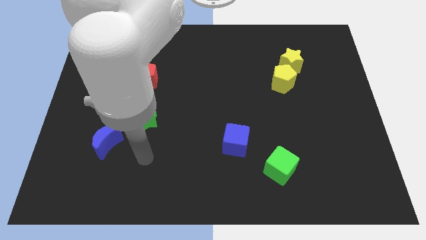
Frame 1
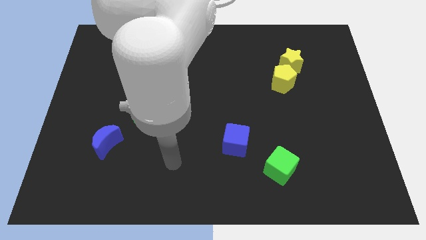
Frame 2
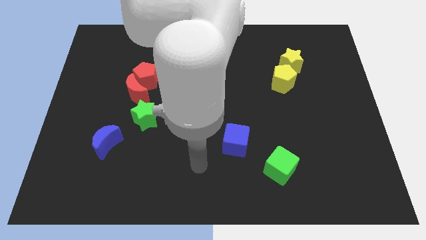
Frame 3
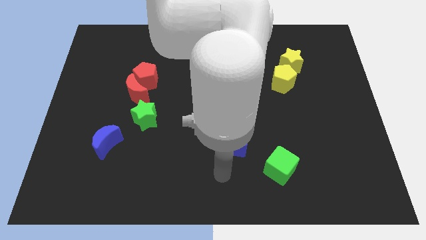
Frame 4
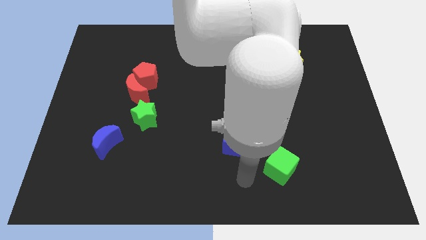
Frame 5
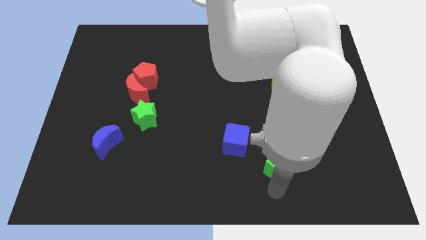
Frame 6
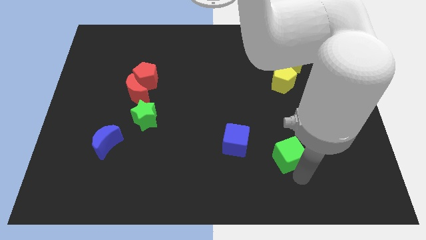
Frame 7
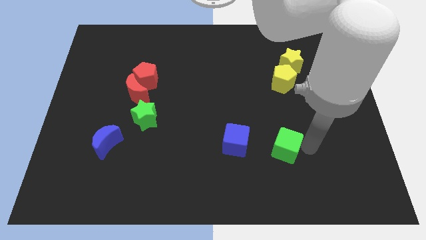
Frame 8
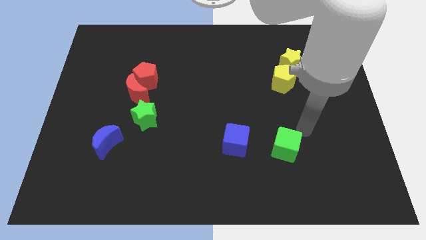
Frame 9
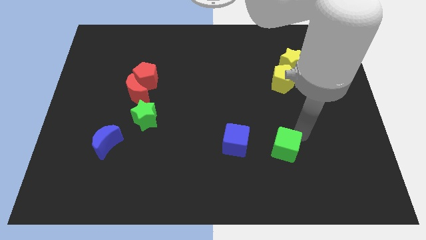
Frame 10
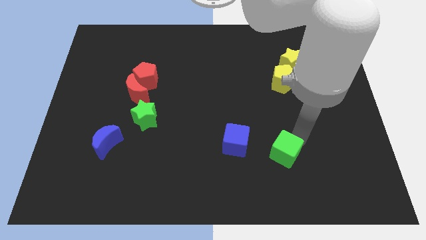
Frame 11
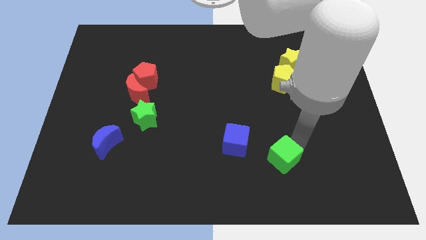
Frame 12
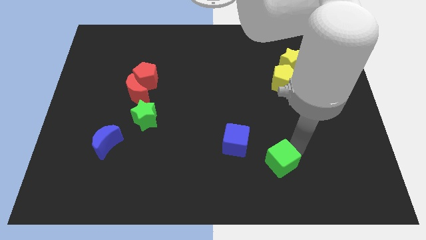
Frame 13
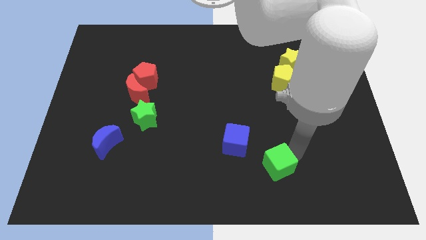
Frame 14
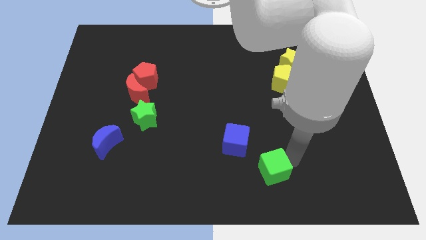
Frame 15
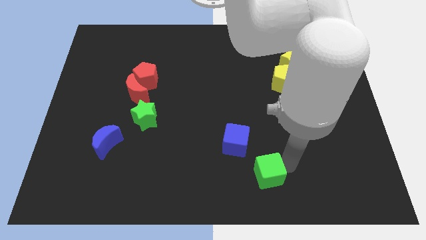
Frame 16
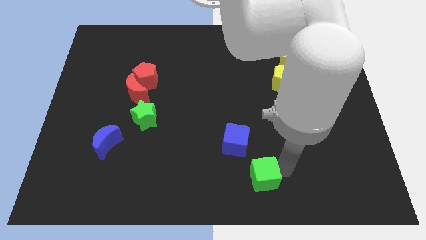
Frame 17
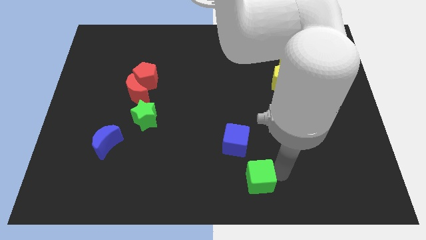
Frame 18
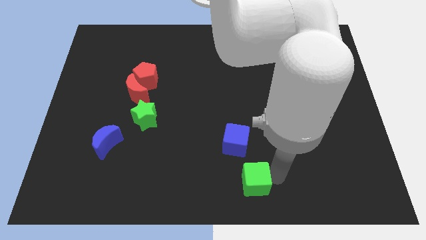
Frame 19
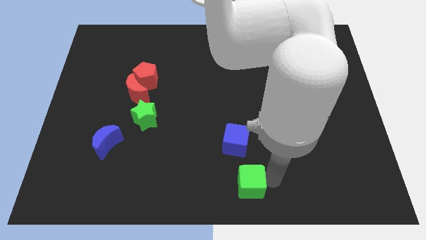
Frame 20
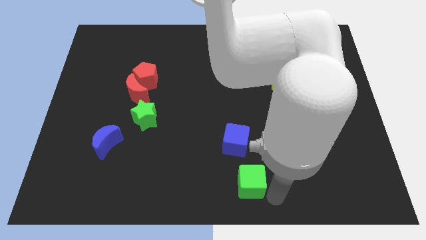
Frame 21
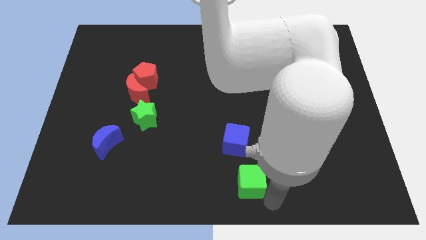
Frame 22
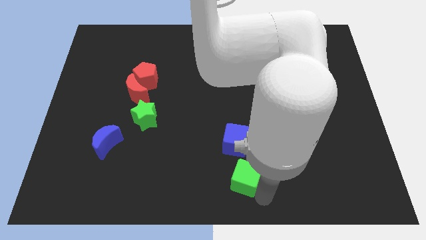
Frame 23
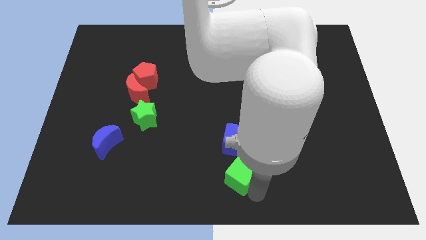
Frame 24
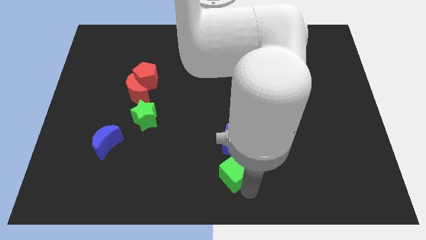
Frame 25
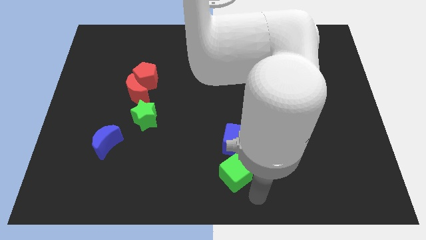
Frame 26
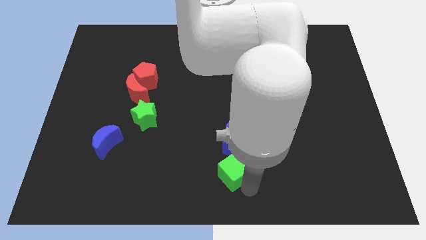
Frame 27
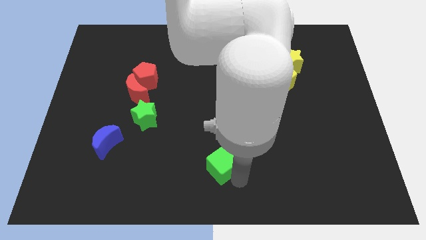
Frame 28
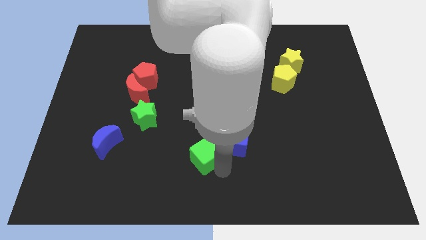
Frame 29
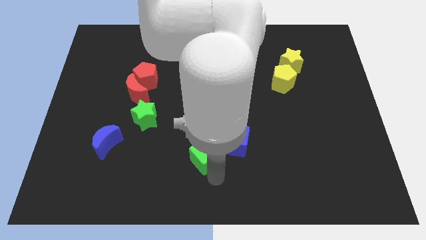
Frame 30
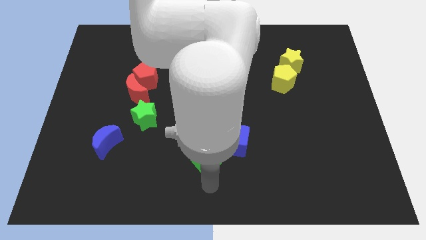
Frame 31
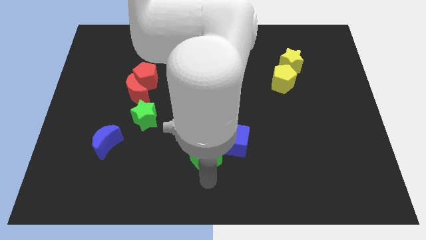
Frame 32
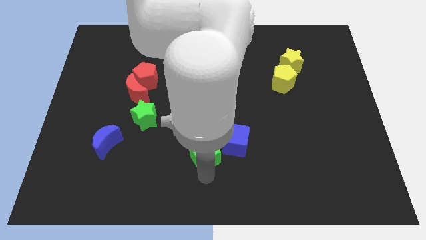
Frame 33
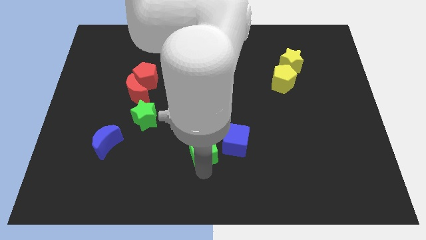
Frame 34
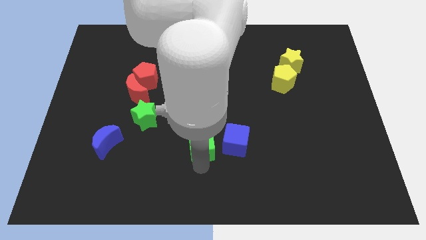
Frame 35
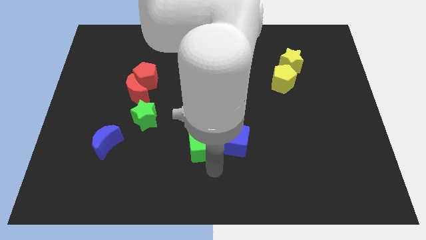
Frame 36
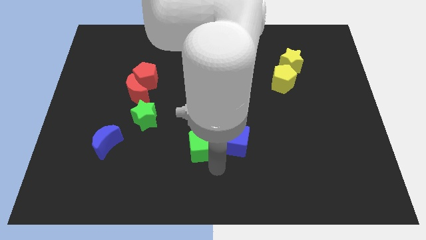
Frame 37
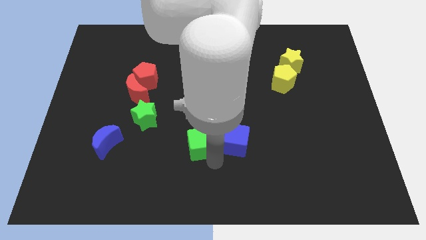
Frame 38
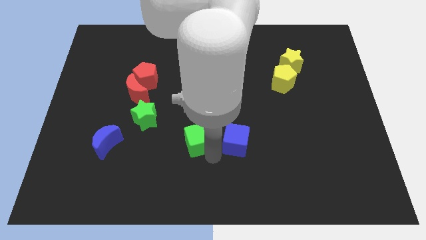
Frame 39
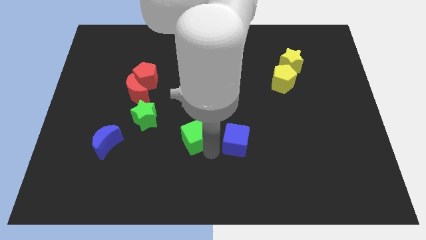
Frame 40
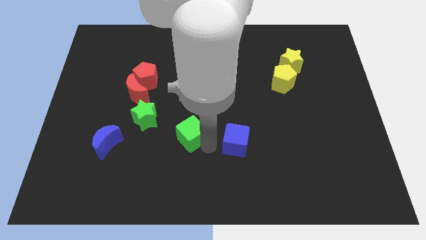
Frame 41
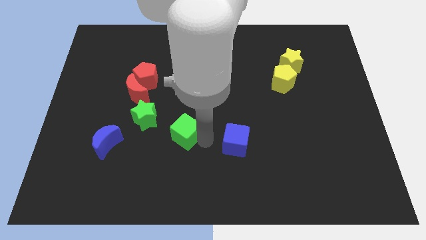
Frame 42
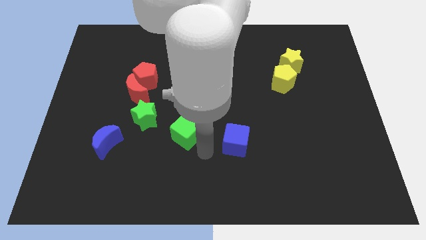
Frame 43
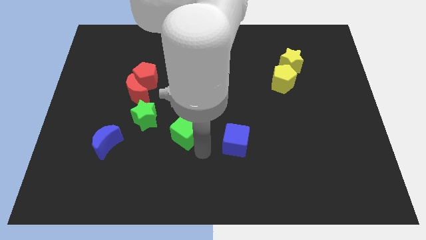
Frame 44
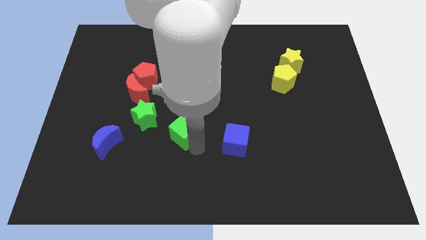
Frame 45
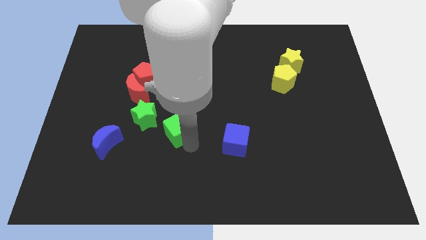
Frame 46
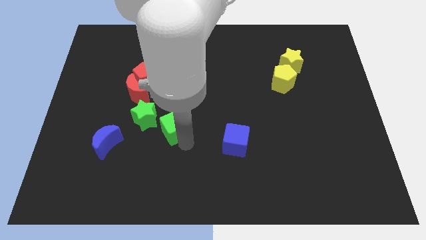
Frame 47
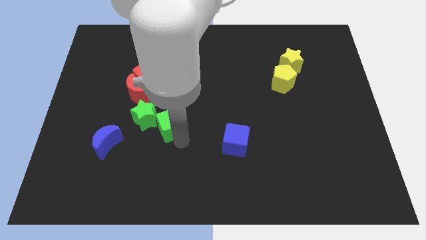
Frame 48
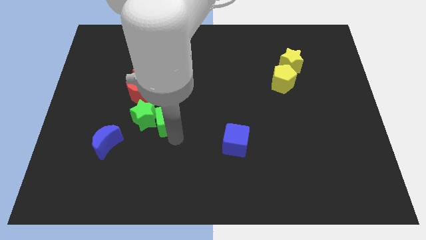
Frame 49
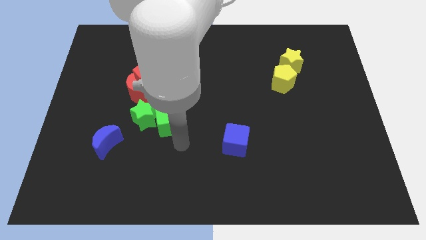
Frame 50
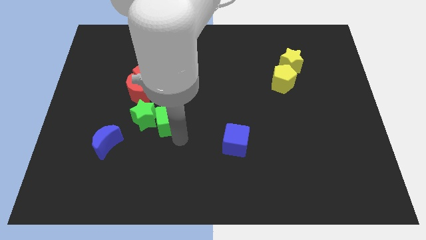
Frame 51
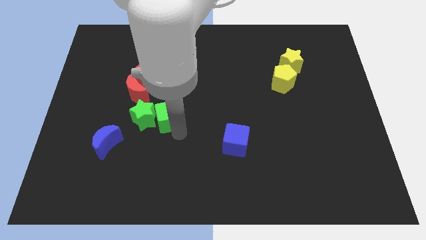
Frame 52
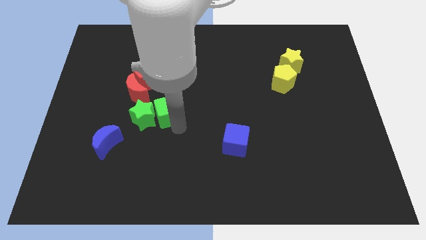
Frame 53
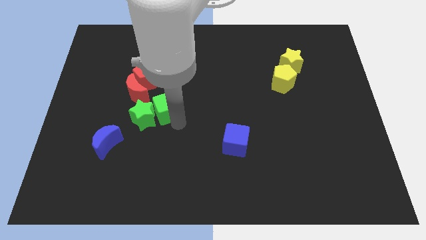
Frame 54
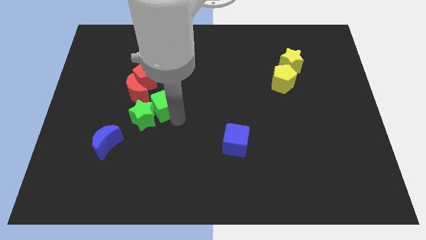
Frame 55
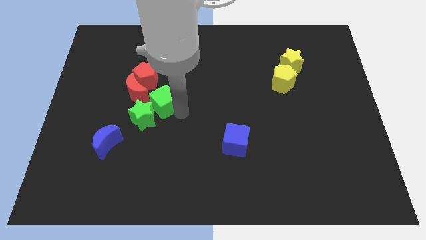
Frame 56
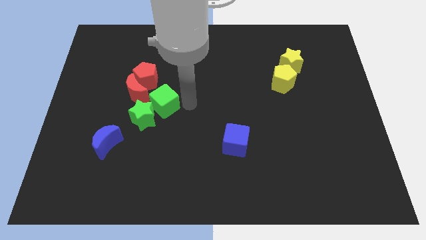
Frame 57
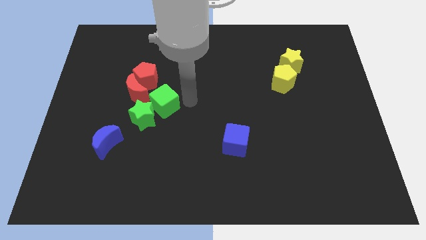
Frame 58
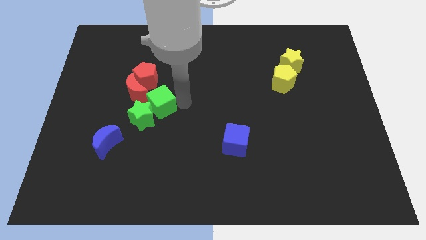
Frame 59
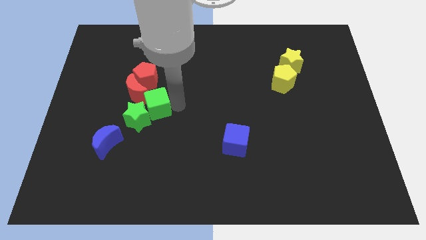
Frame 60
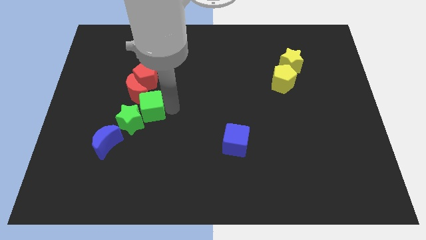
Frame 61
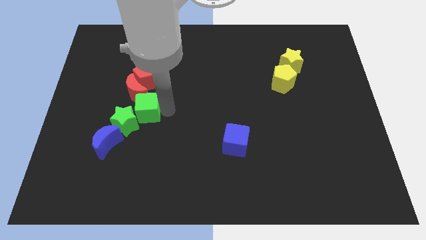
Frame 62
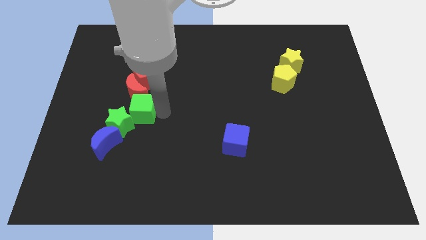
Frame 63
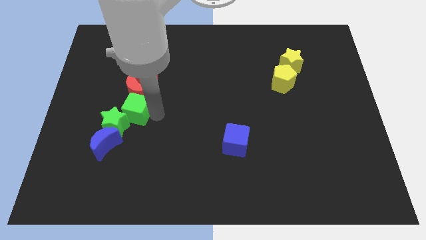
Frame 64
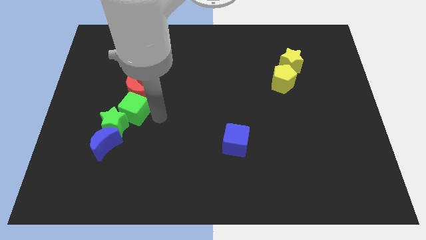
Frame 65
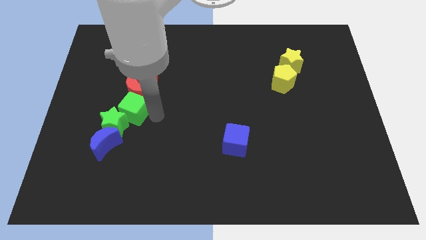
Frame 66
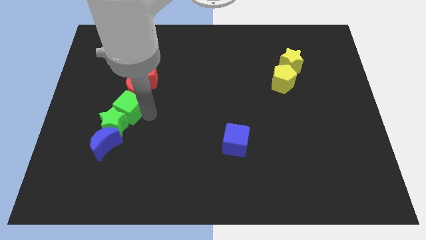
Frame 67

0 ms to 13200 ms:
slide the green cube to the top side of the blue moon

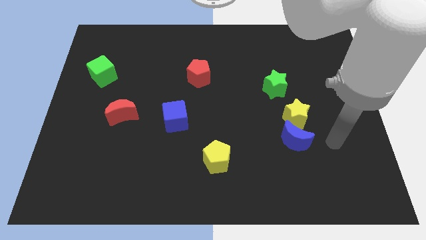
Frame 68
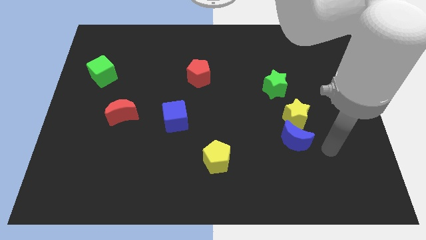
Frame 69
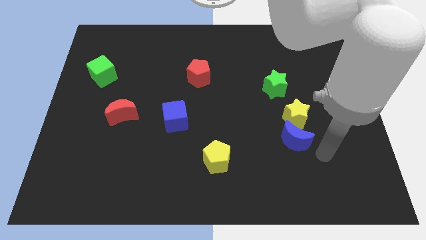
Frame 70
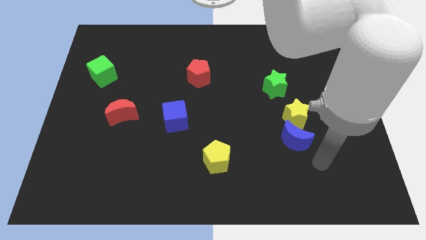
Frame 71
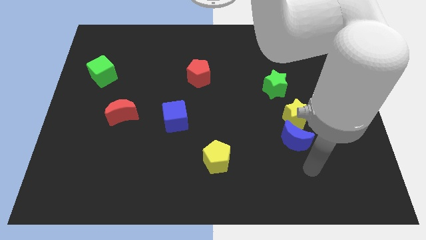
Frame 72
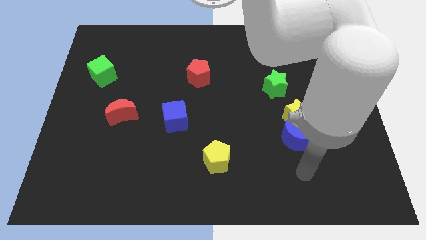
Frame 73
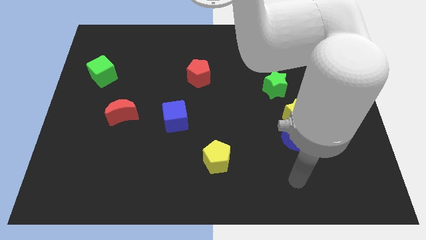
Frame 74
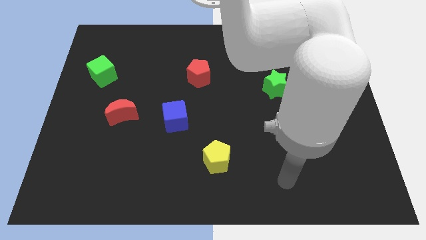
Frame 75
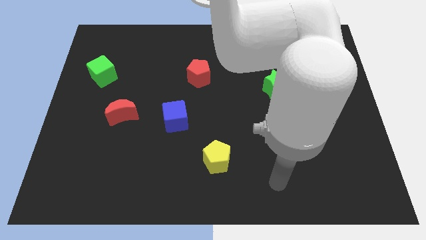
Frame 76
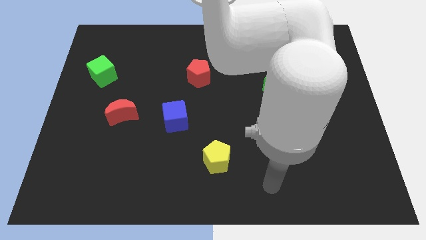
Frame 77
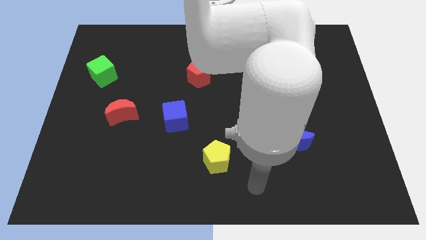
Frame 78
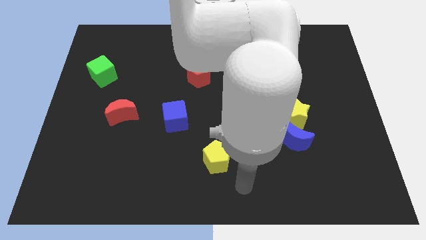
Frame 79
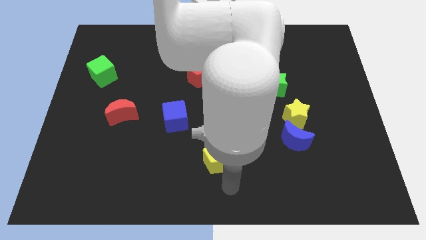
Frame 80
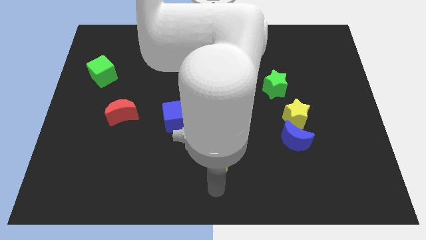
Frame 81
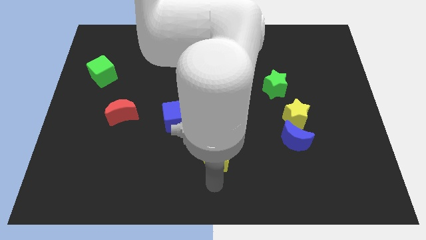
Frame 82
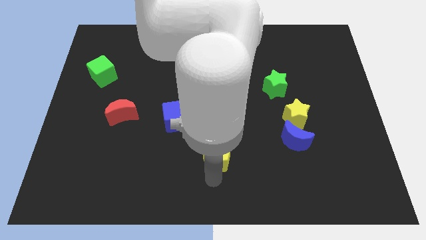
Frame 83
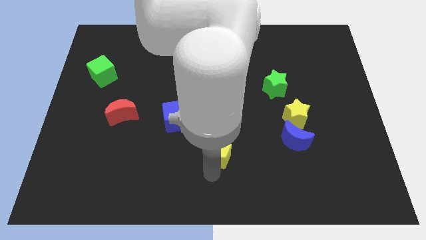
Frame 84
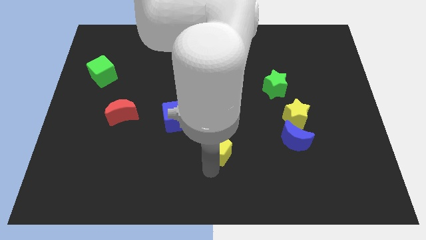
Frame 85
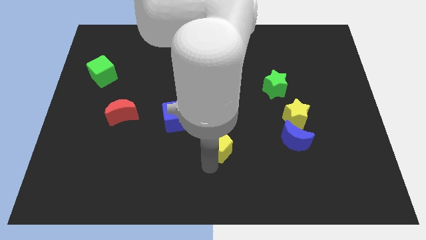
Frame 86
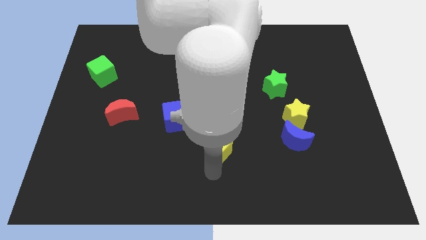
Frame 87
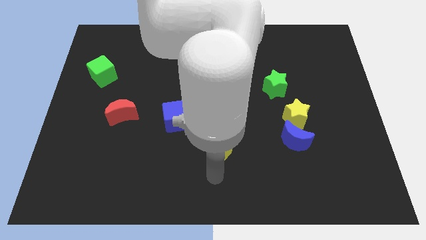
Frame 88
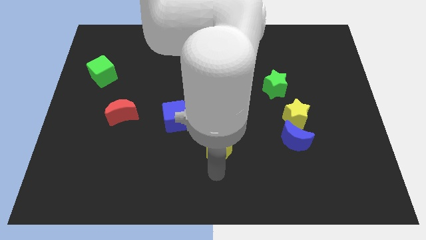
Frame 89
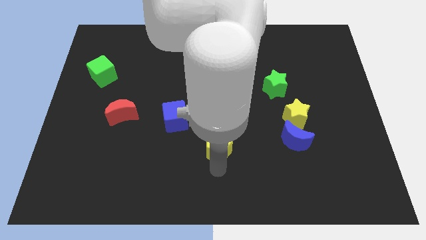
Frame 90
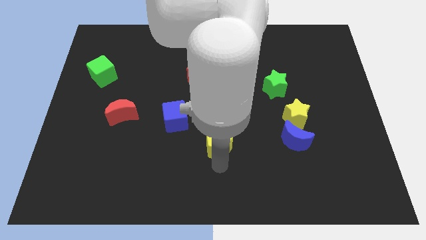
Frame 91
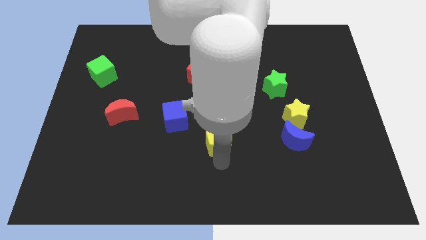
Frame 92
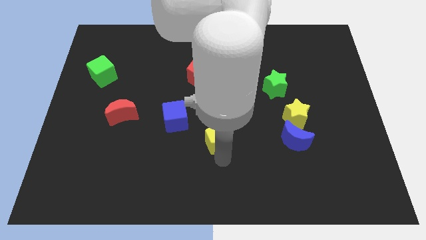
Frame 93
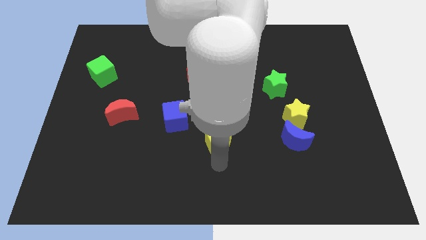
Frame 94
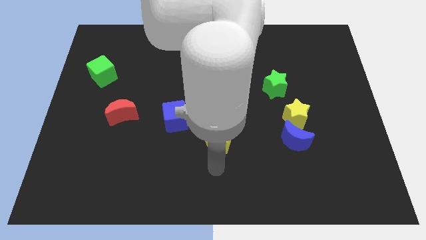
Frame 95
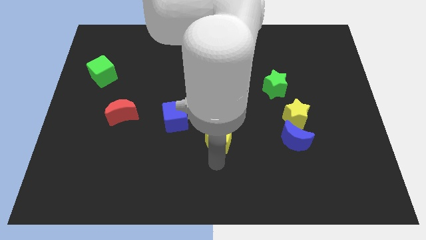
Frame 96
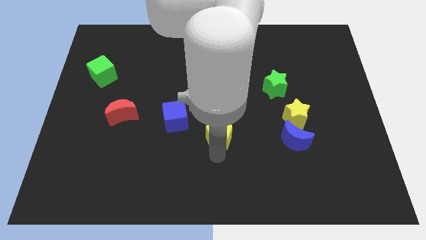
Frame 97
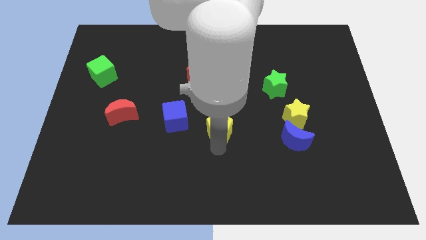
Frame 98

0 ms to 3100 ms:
put the yellow pentagon to the right of the blue cube
